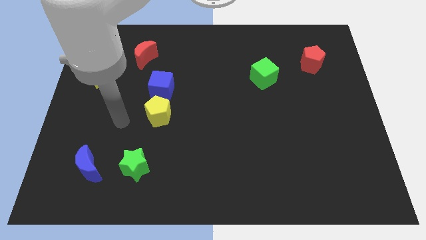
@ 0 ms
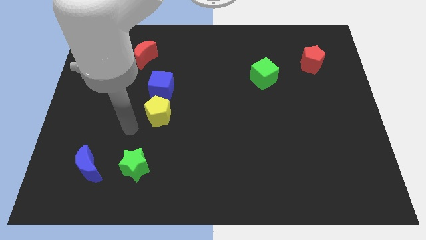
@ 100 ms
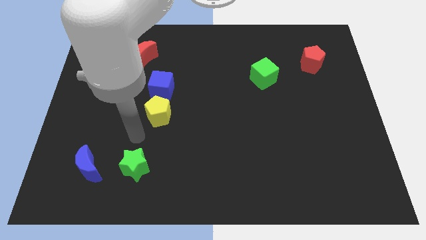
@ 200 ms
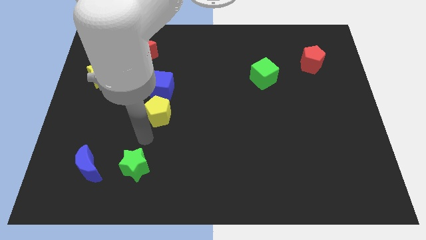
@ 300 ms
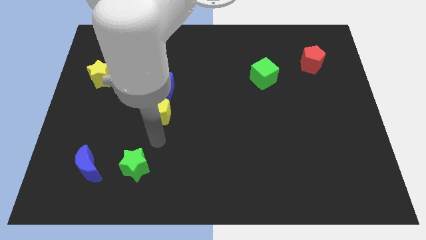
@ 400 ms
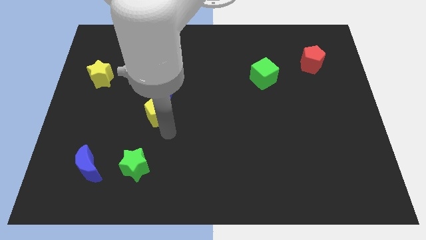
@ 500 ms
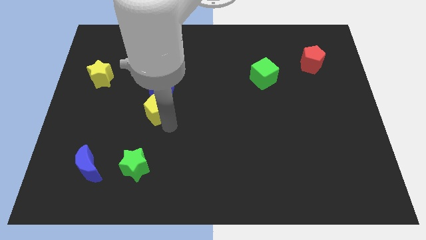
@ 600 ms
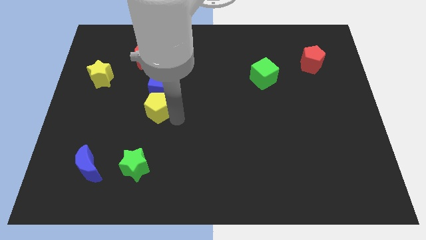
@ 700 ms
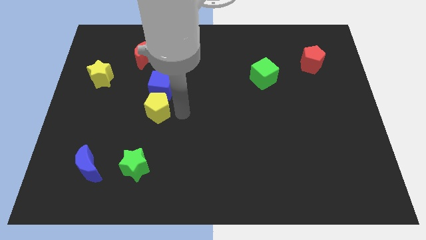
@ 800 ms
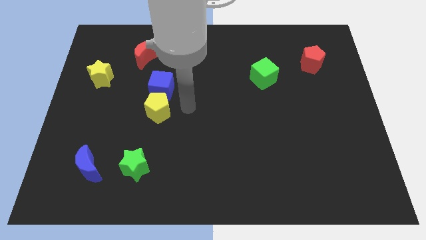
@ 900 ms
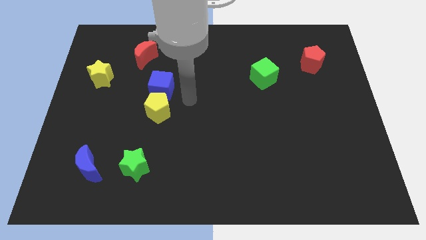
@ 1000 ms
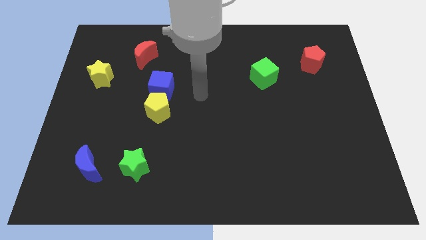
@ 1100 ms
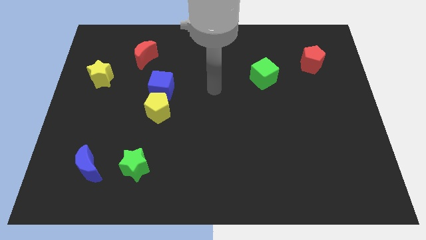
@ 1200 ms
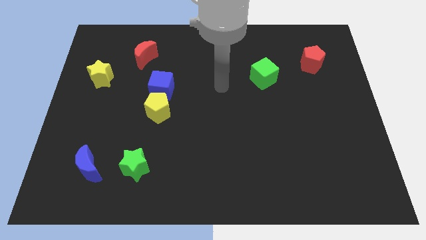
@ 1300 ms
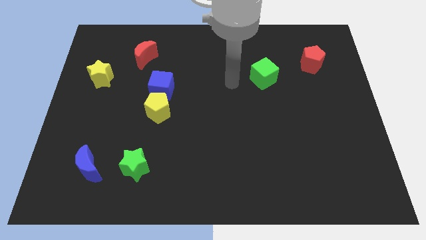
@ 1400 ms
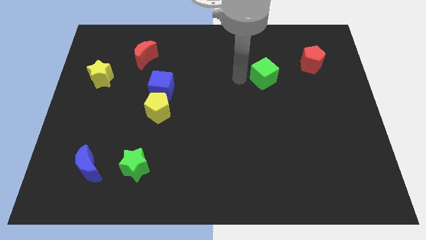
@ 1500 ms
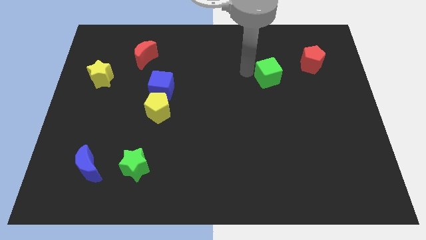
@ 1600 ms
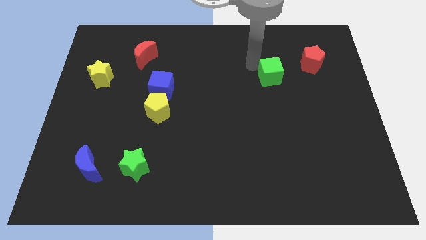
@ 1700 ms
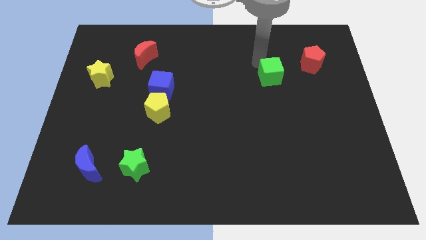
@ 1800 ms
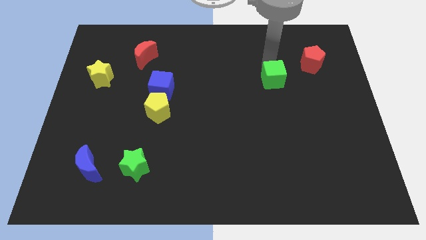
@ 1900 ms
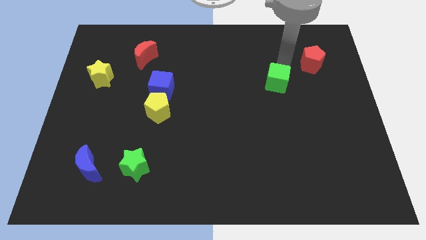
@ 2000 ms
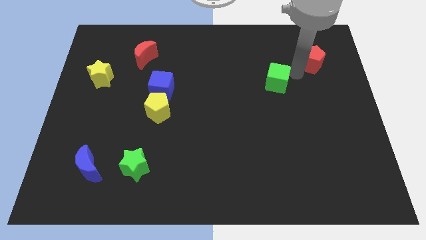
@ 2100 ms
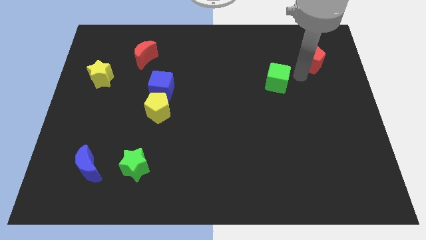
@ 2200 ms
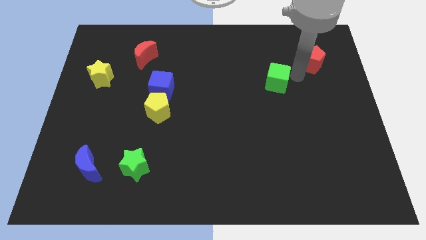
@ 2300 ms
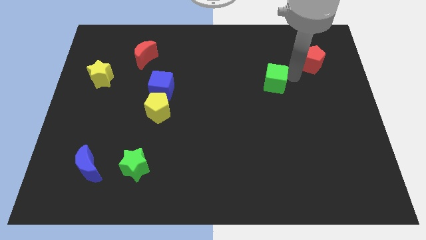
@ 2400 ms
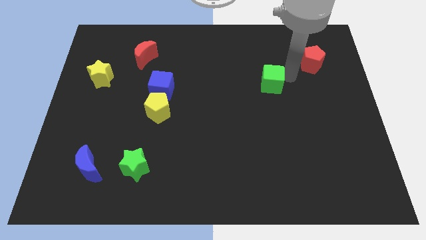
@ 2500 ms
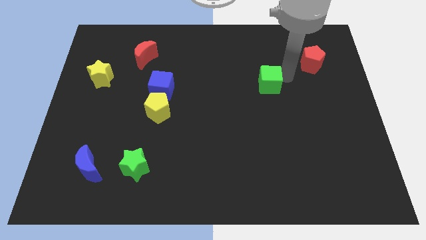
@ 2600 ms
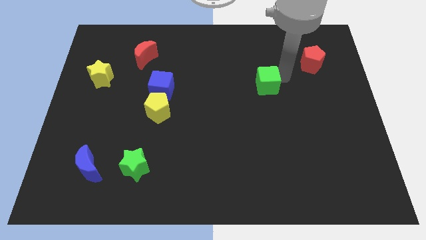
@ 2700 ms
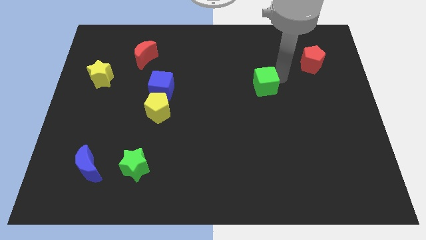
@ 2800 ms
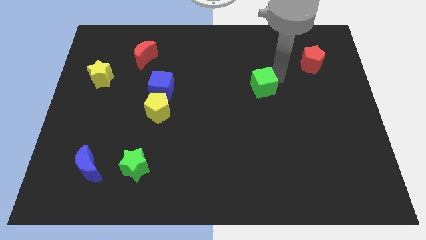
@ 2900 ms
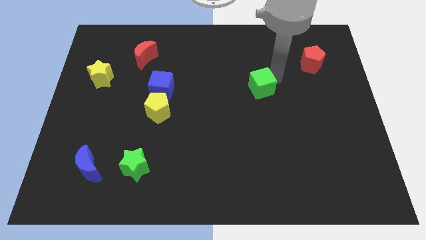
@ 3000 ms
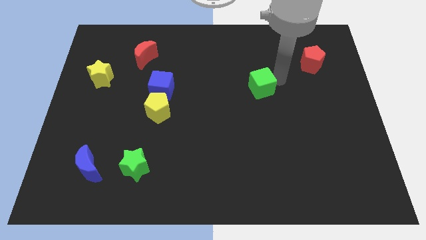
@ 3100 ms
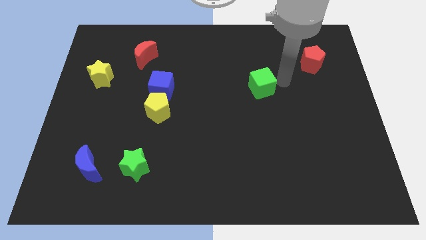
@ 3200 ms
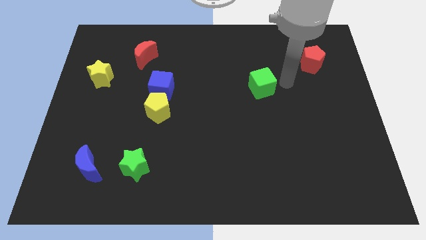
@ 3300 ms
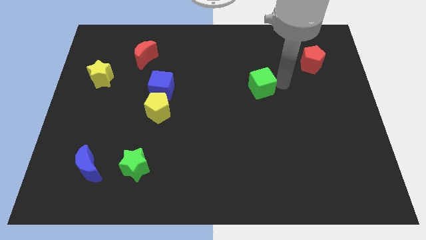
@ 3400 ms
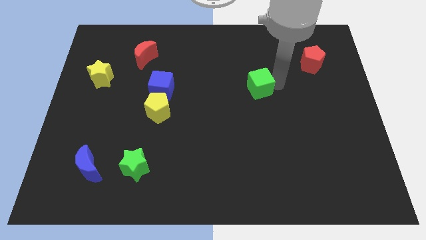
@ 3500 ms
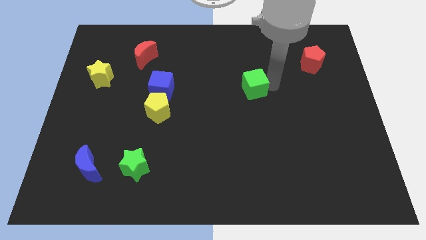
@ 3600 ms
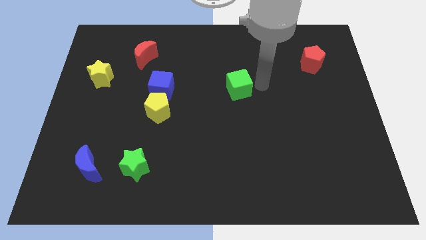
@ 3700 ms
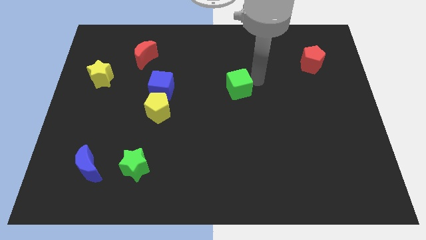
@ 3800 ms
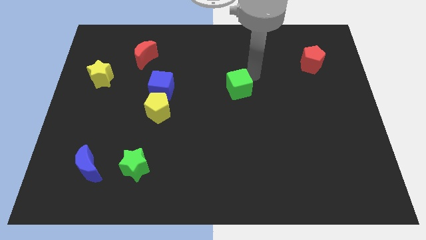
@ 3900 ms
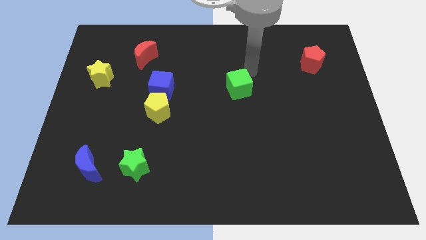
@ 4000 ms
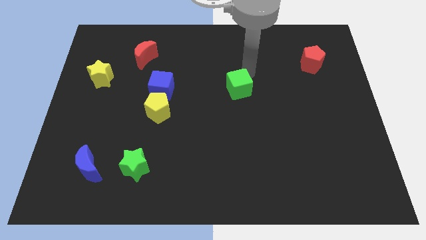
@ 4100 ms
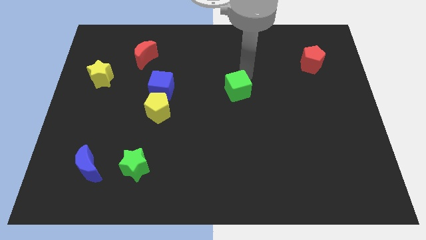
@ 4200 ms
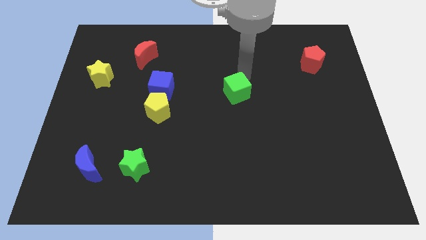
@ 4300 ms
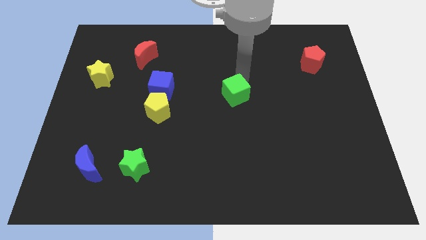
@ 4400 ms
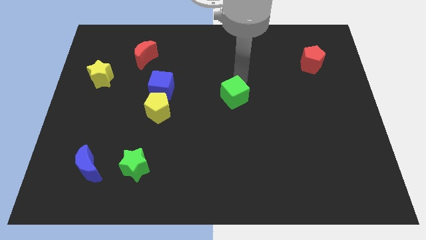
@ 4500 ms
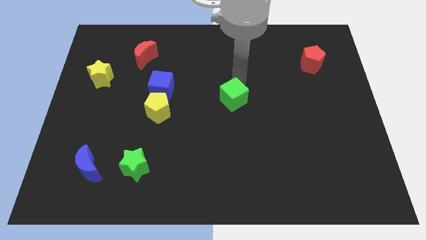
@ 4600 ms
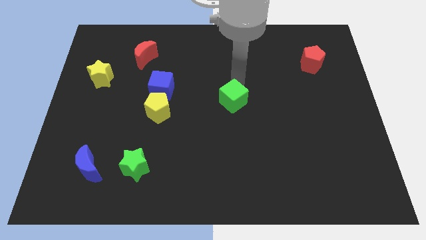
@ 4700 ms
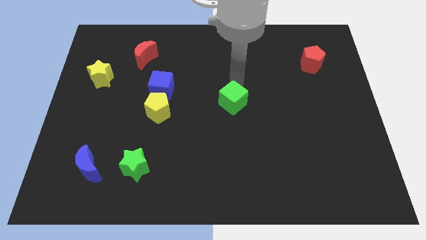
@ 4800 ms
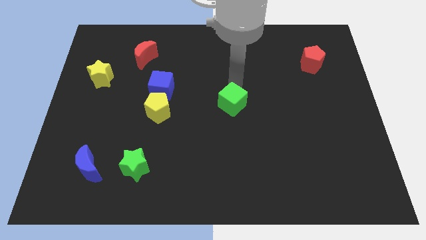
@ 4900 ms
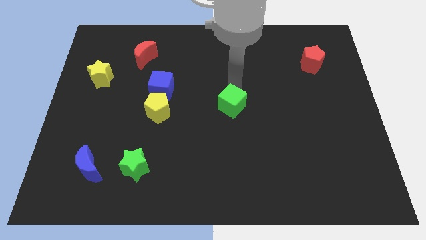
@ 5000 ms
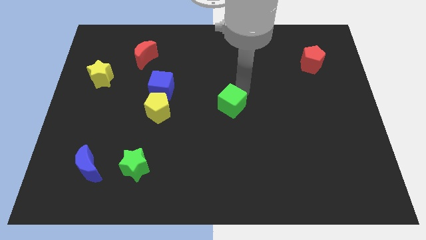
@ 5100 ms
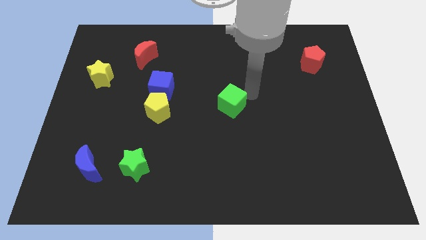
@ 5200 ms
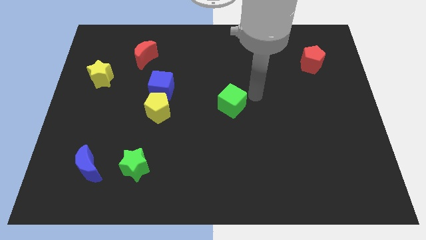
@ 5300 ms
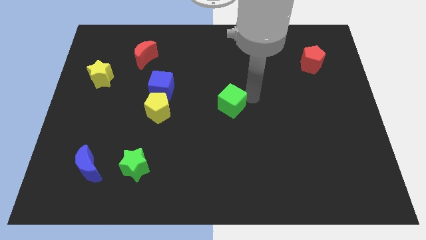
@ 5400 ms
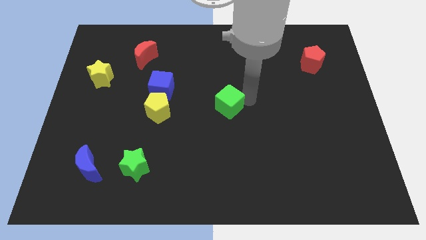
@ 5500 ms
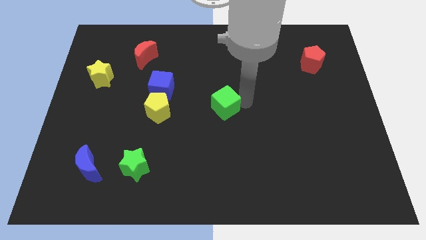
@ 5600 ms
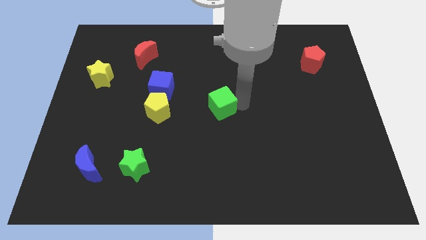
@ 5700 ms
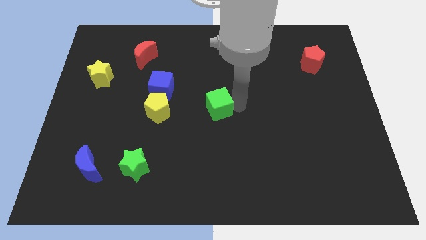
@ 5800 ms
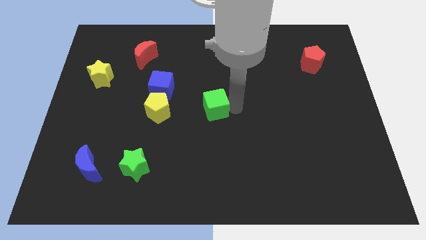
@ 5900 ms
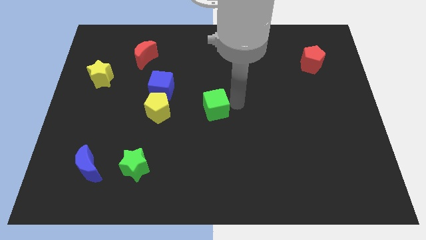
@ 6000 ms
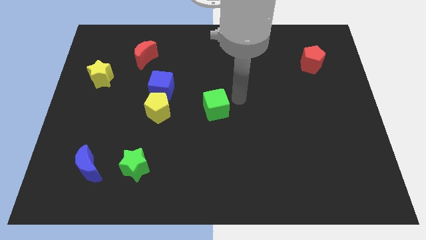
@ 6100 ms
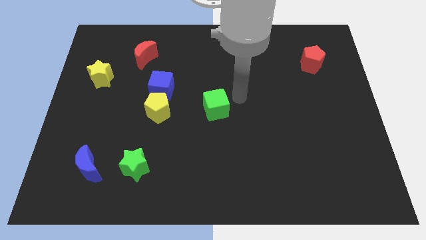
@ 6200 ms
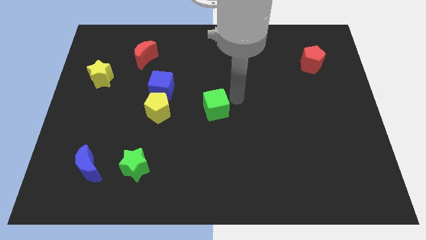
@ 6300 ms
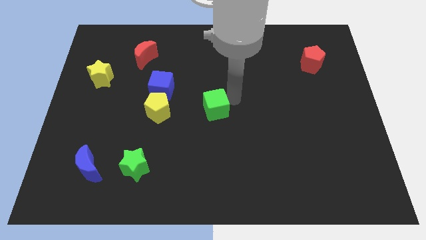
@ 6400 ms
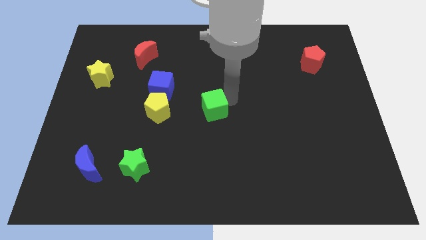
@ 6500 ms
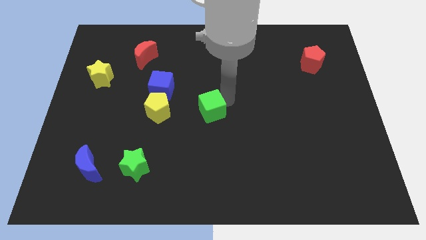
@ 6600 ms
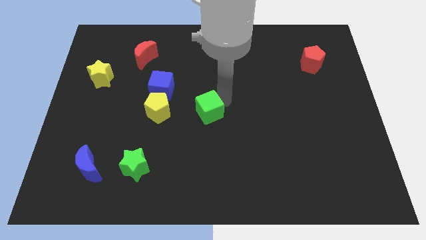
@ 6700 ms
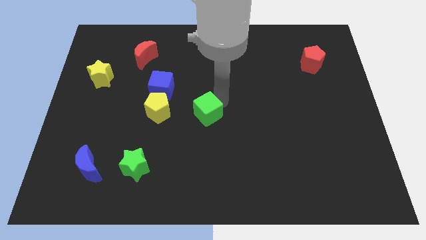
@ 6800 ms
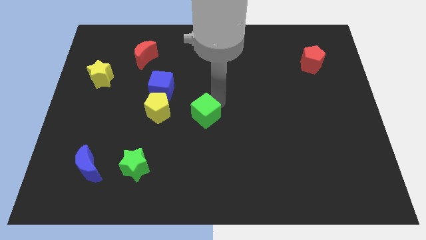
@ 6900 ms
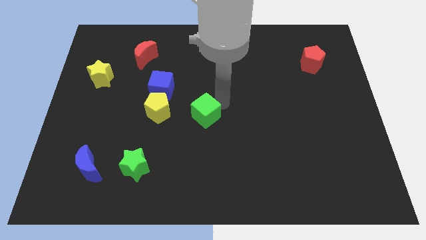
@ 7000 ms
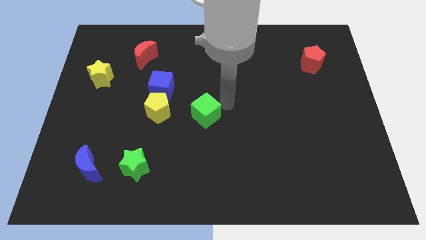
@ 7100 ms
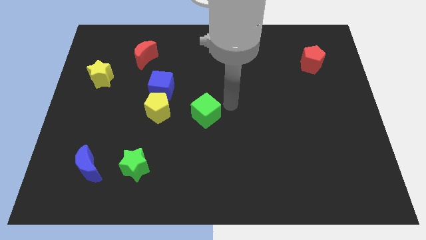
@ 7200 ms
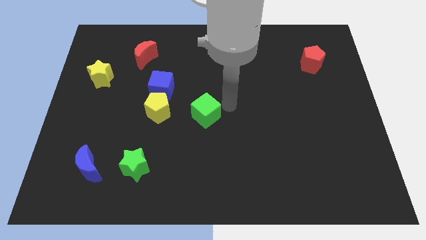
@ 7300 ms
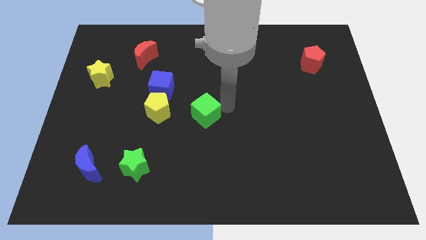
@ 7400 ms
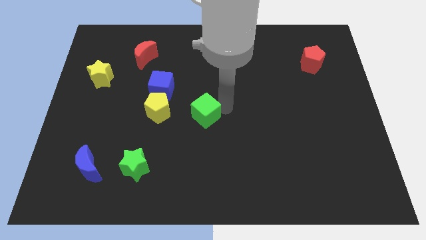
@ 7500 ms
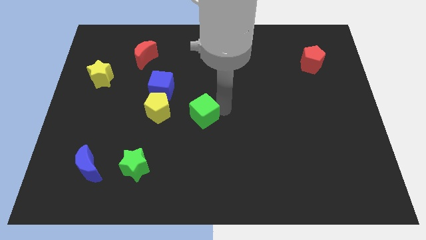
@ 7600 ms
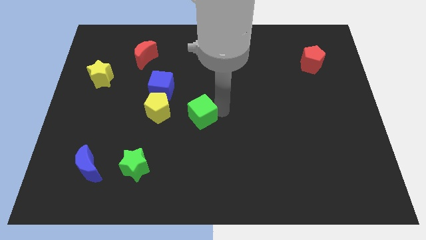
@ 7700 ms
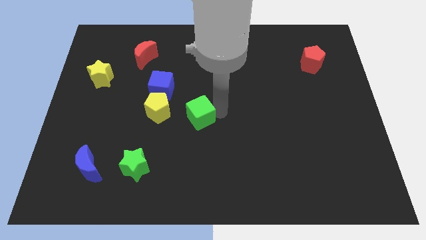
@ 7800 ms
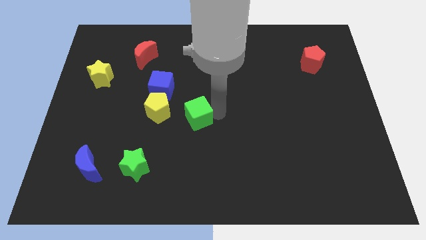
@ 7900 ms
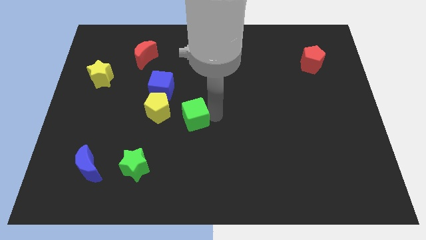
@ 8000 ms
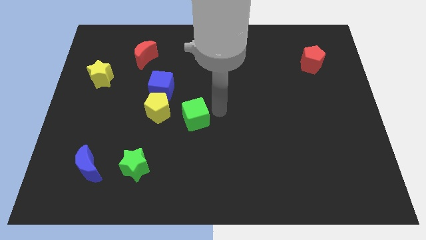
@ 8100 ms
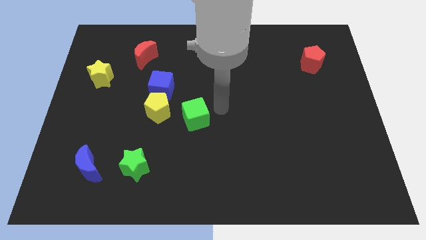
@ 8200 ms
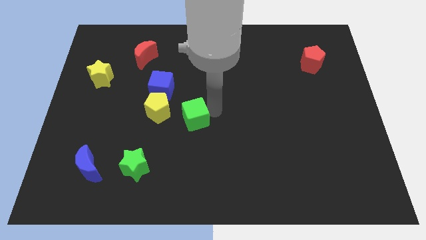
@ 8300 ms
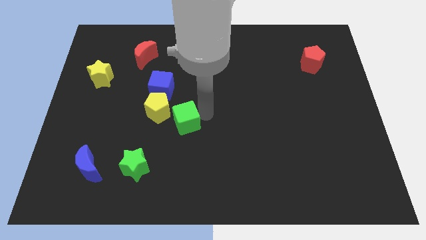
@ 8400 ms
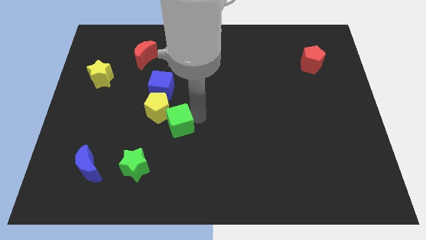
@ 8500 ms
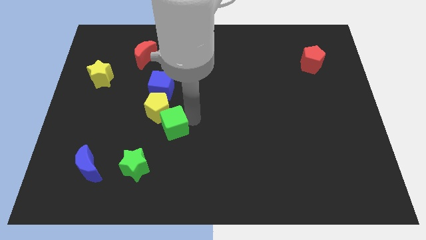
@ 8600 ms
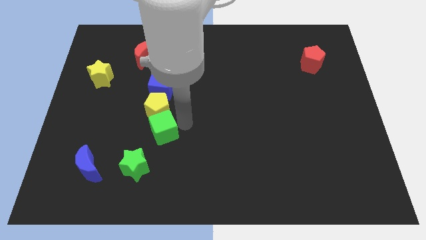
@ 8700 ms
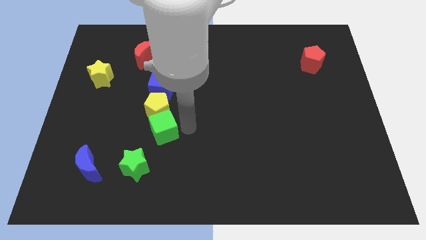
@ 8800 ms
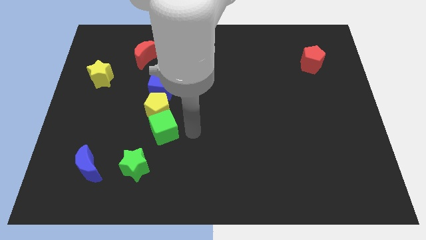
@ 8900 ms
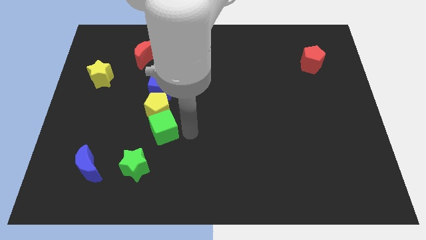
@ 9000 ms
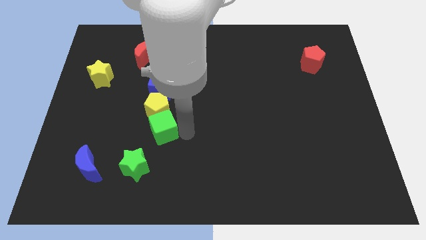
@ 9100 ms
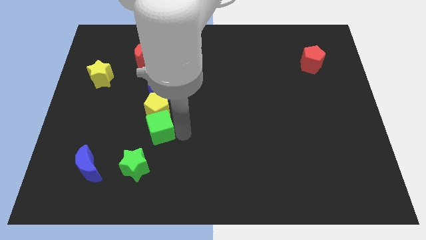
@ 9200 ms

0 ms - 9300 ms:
move the green cube to the bottom left side of the yellow pentagon
